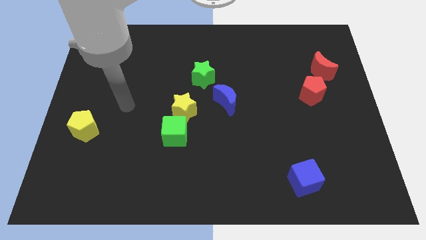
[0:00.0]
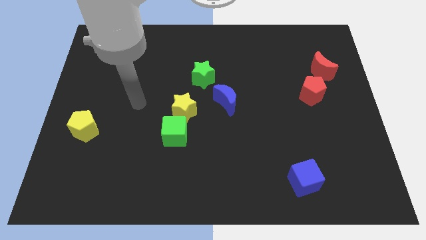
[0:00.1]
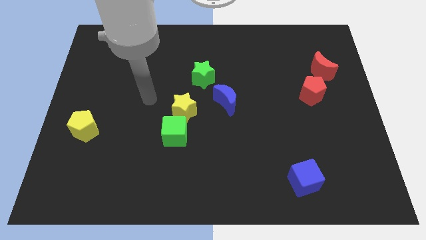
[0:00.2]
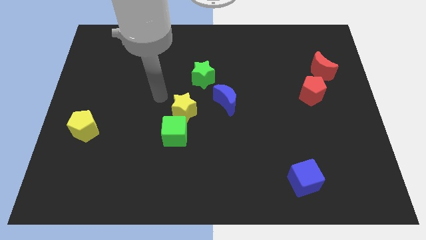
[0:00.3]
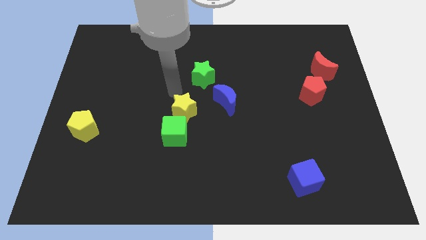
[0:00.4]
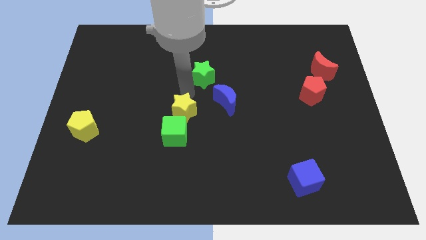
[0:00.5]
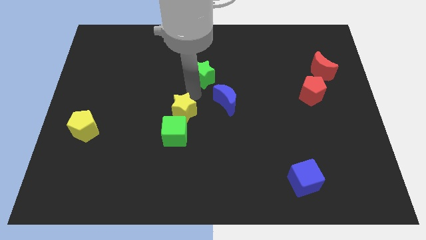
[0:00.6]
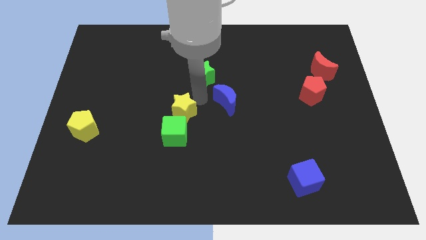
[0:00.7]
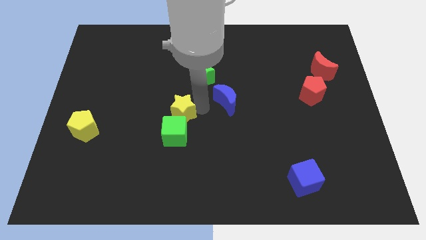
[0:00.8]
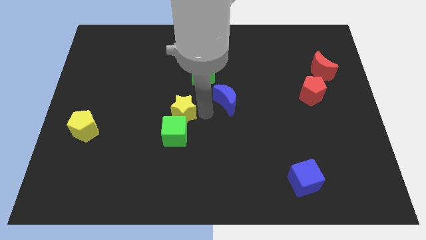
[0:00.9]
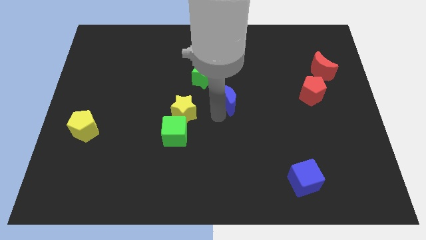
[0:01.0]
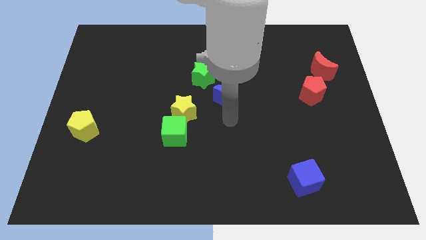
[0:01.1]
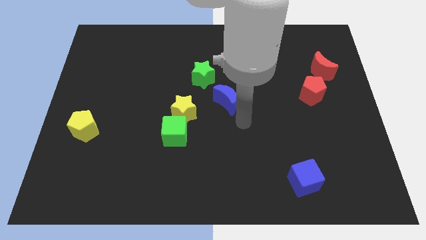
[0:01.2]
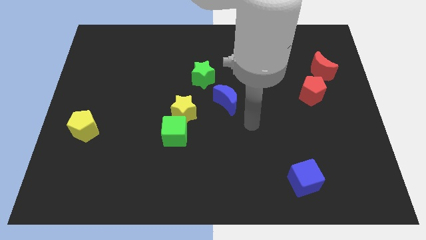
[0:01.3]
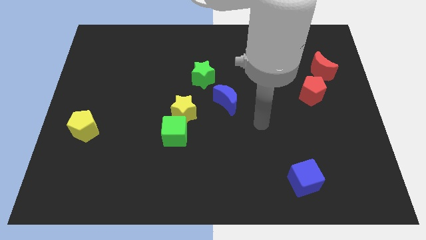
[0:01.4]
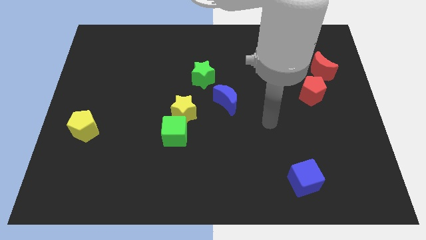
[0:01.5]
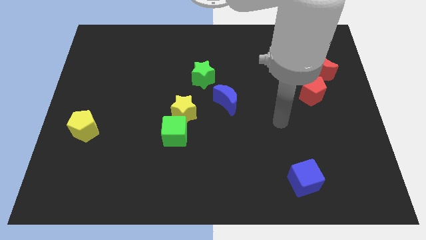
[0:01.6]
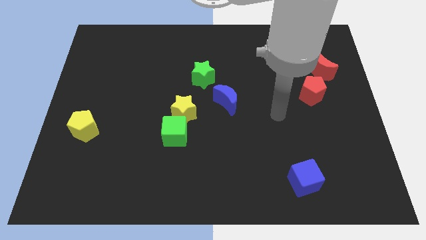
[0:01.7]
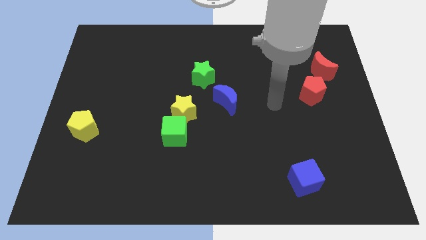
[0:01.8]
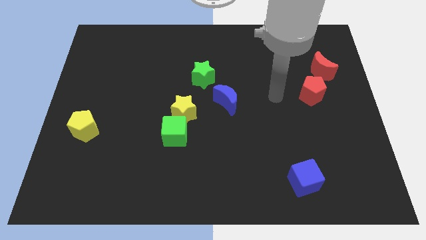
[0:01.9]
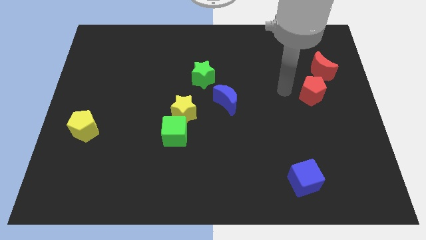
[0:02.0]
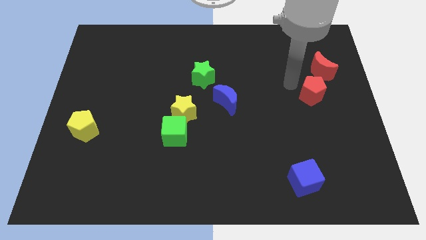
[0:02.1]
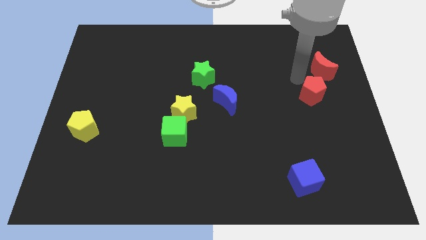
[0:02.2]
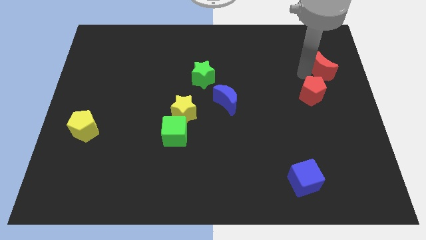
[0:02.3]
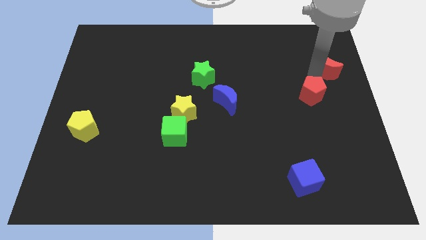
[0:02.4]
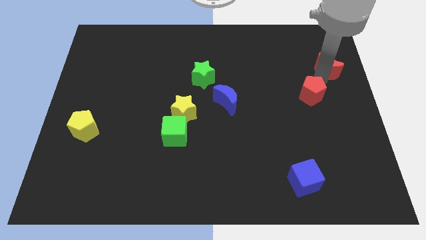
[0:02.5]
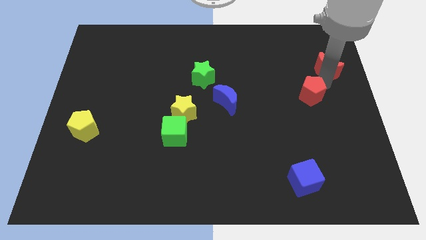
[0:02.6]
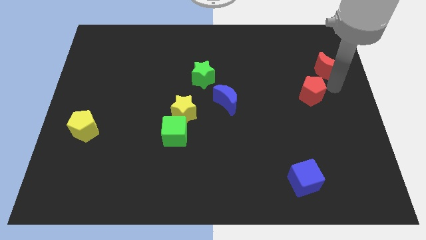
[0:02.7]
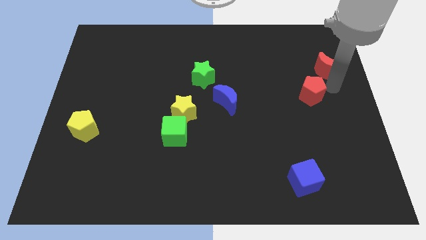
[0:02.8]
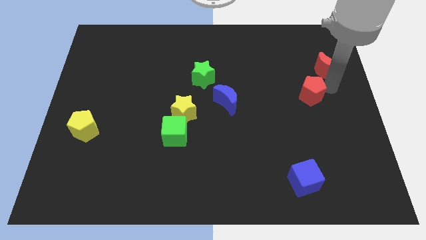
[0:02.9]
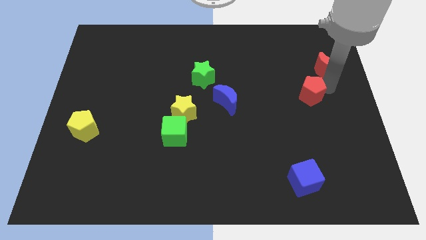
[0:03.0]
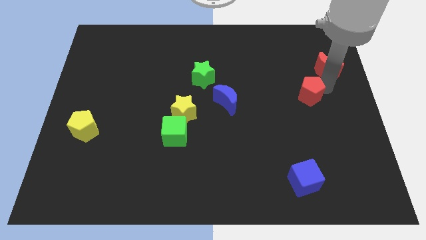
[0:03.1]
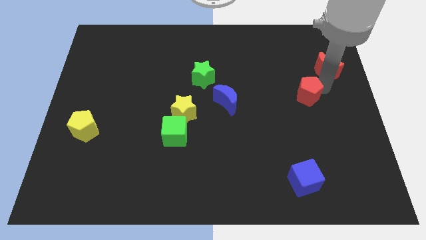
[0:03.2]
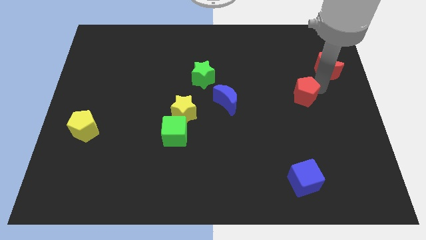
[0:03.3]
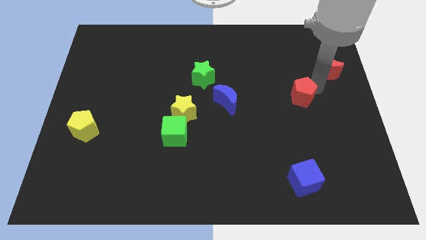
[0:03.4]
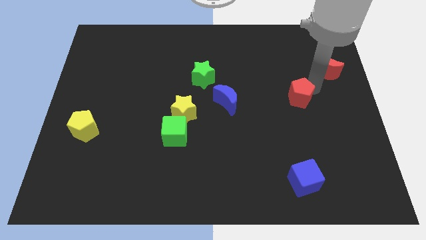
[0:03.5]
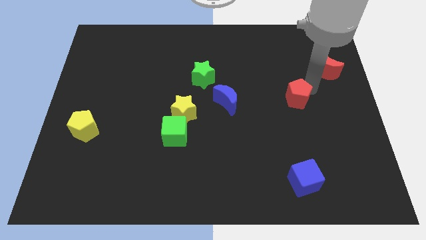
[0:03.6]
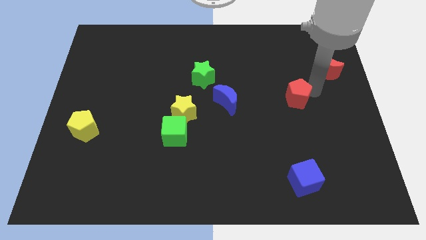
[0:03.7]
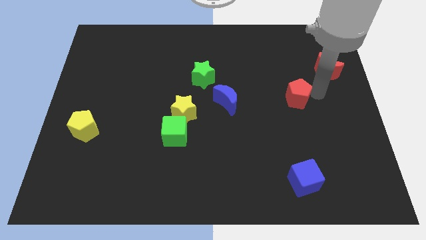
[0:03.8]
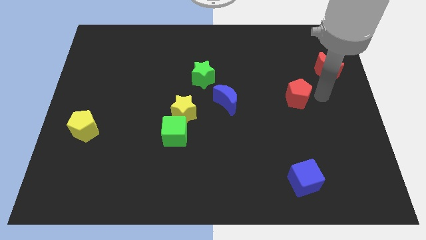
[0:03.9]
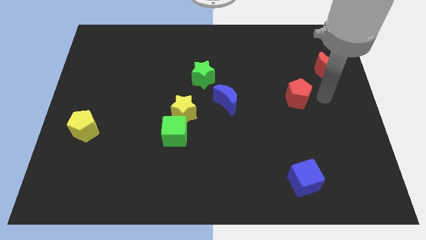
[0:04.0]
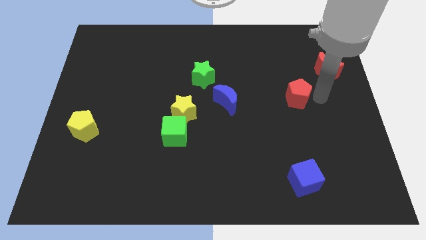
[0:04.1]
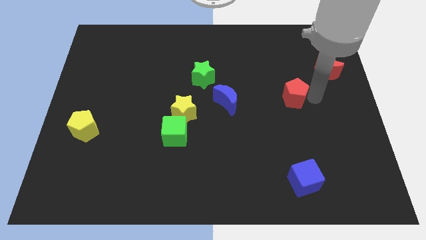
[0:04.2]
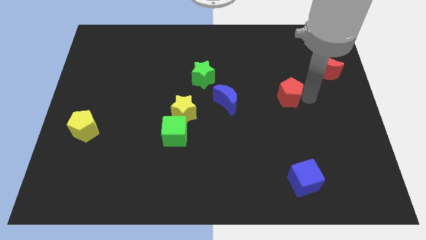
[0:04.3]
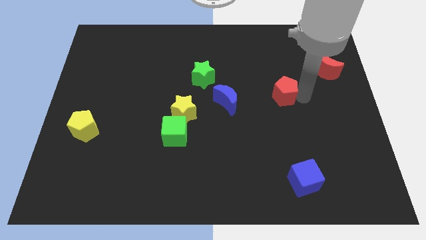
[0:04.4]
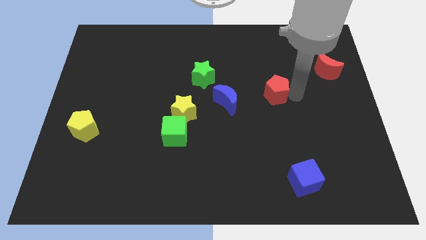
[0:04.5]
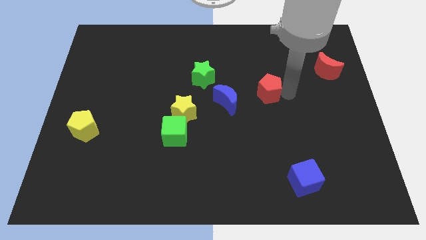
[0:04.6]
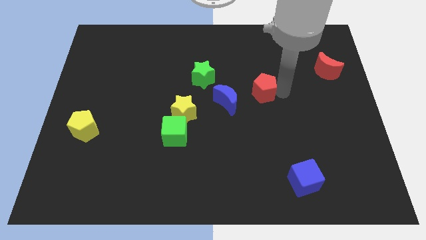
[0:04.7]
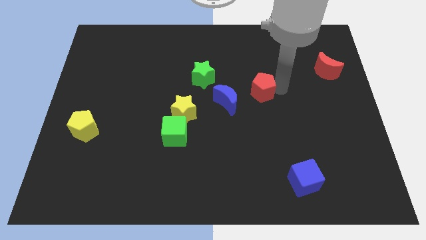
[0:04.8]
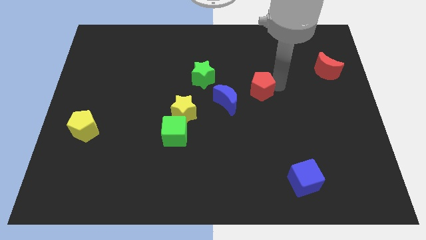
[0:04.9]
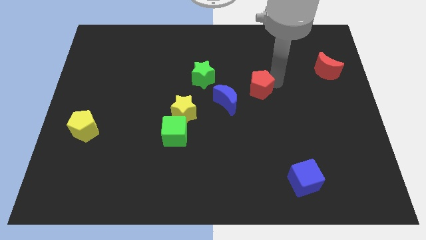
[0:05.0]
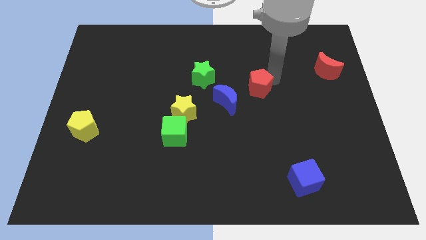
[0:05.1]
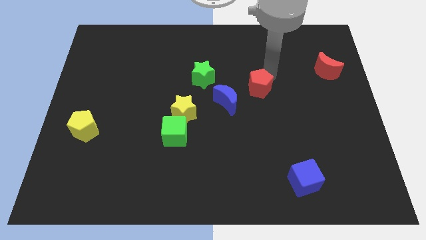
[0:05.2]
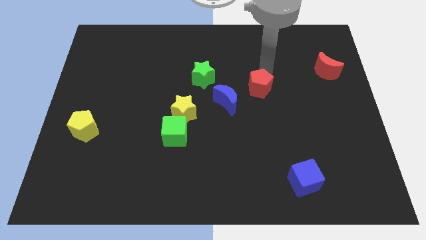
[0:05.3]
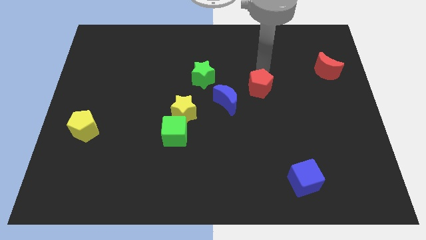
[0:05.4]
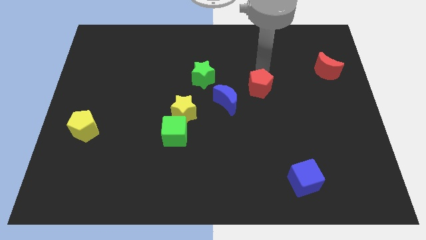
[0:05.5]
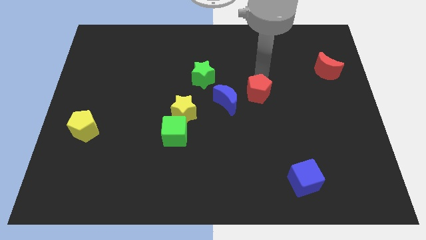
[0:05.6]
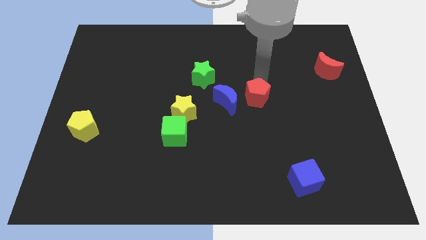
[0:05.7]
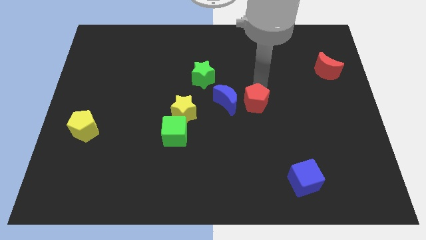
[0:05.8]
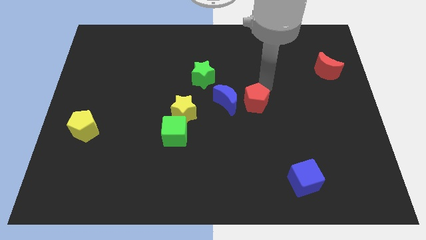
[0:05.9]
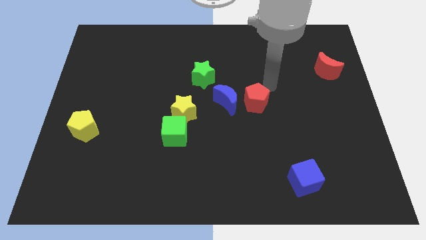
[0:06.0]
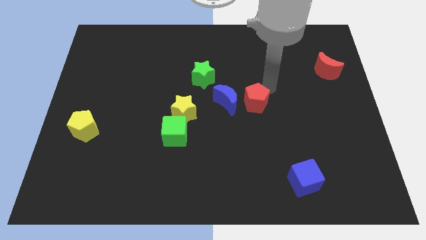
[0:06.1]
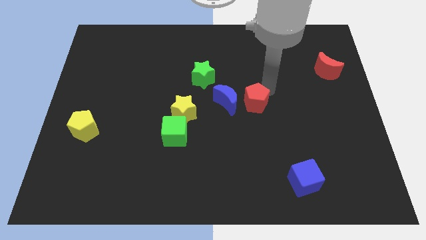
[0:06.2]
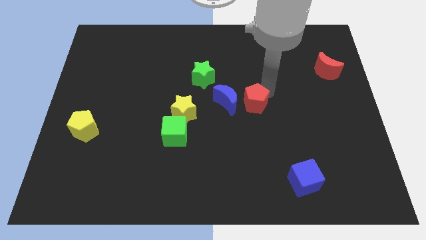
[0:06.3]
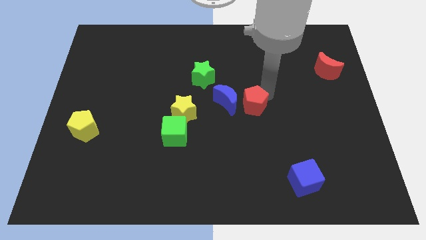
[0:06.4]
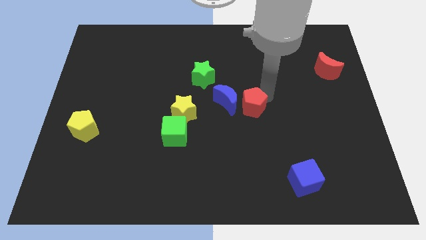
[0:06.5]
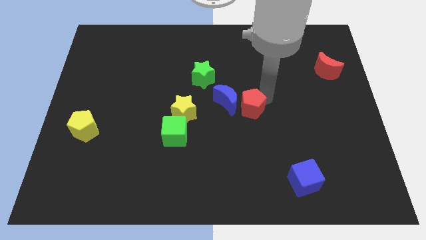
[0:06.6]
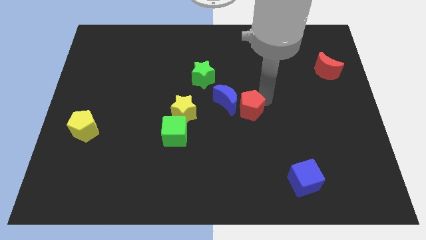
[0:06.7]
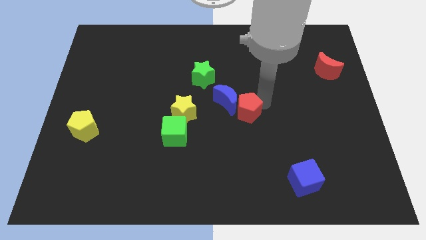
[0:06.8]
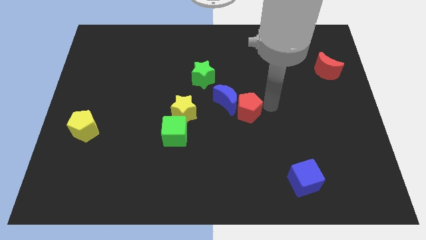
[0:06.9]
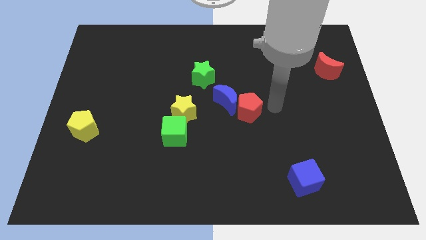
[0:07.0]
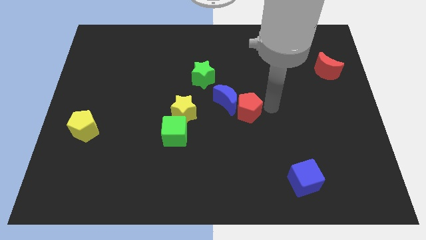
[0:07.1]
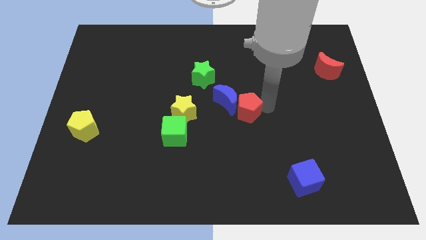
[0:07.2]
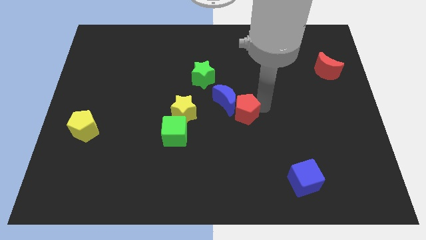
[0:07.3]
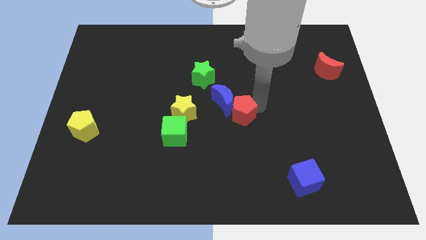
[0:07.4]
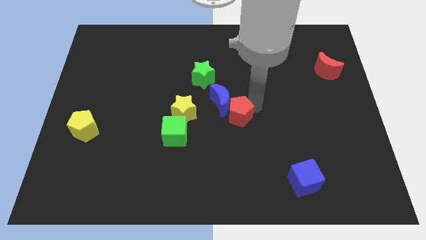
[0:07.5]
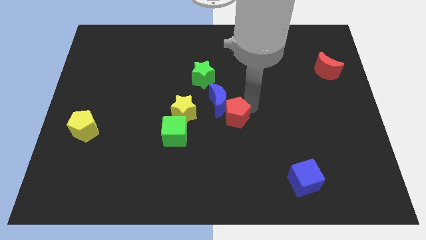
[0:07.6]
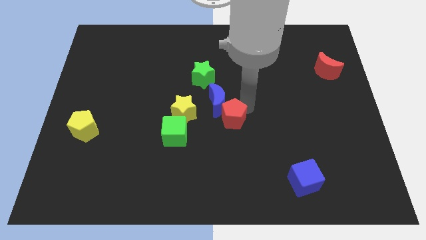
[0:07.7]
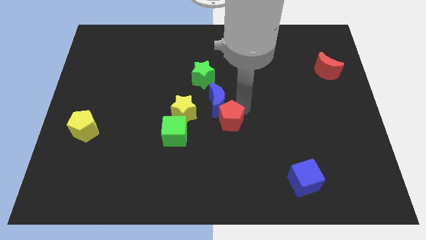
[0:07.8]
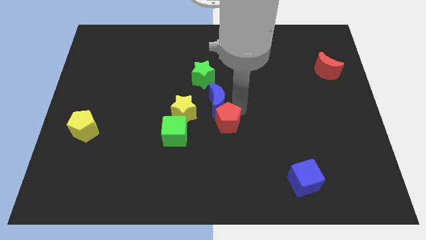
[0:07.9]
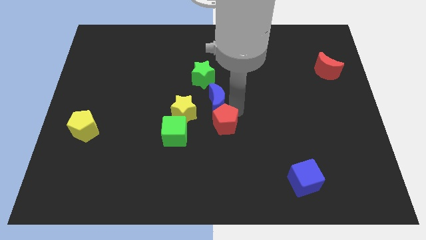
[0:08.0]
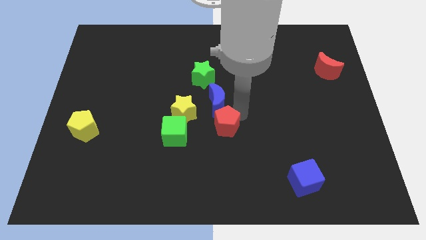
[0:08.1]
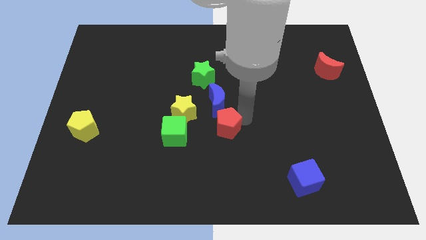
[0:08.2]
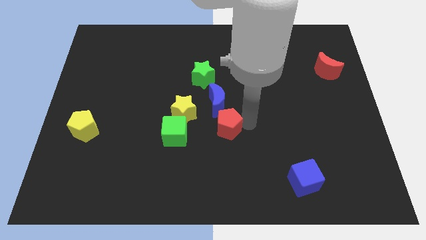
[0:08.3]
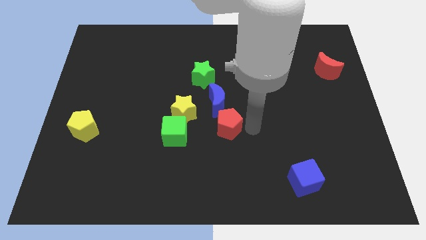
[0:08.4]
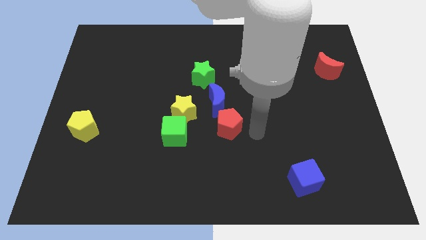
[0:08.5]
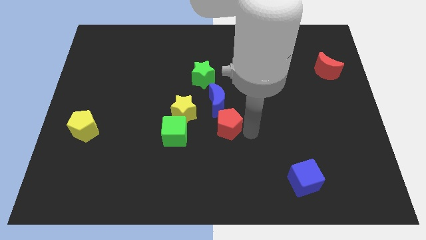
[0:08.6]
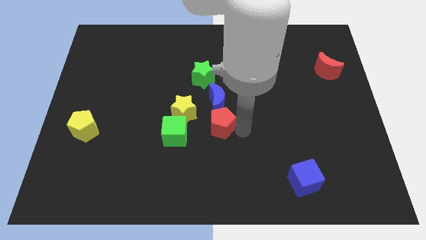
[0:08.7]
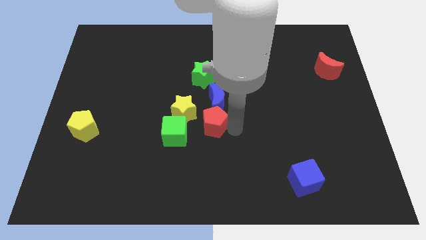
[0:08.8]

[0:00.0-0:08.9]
put the red pentagon diagonally down and to the left of the blue moon
